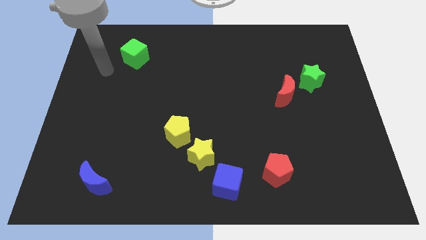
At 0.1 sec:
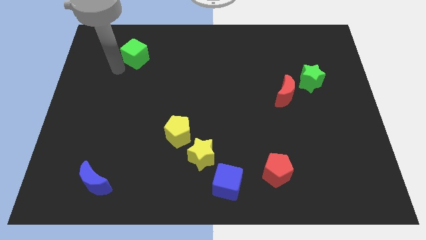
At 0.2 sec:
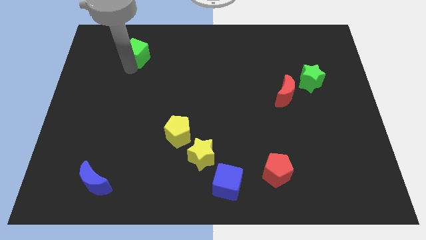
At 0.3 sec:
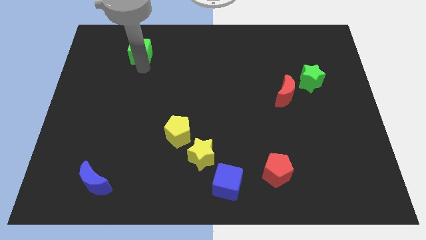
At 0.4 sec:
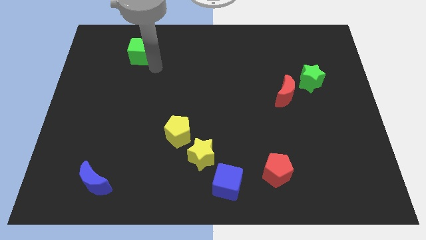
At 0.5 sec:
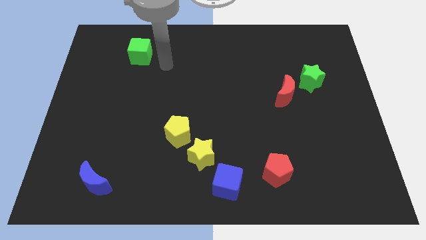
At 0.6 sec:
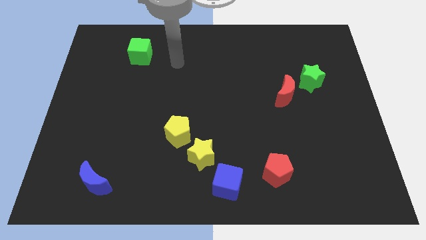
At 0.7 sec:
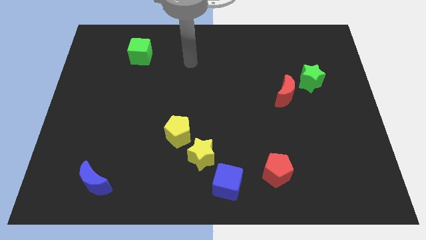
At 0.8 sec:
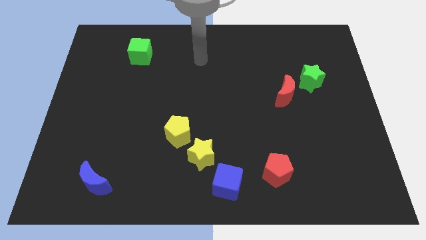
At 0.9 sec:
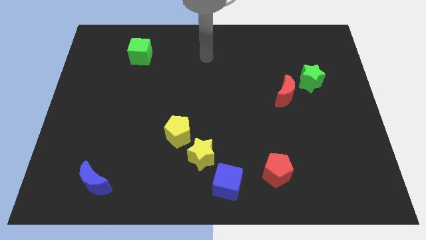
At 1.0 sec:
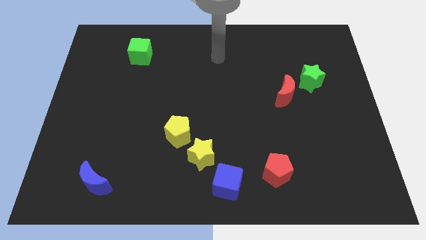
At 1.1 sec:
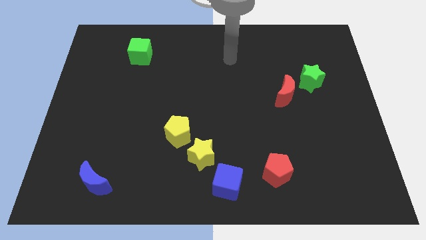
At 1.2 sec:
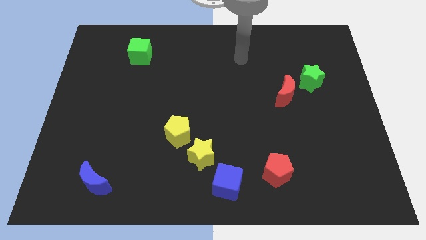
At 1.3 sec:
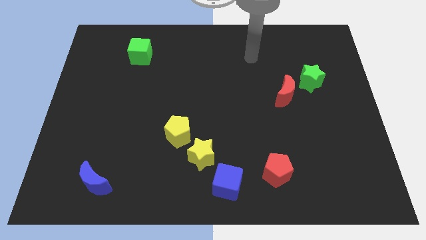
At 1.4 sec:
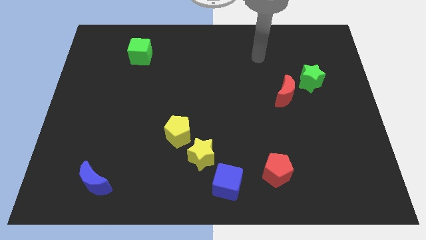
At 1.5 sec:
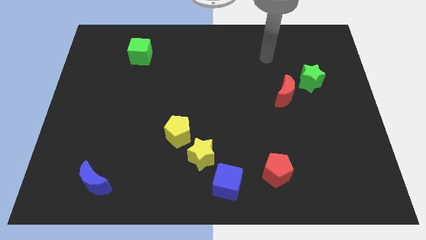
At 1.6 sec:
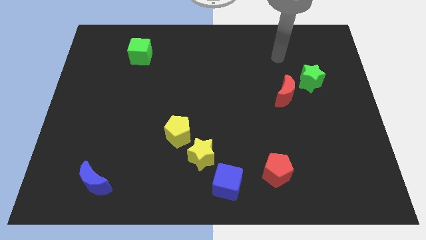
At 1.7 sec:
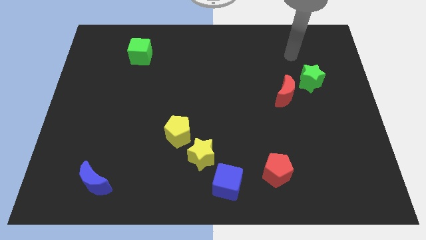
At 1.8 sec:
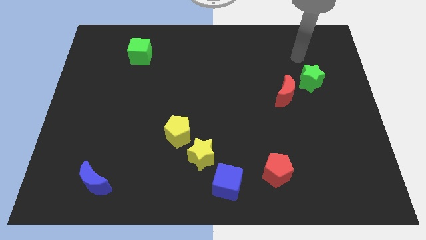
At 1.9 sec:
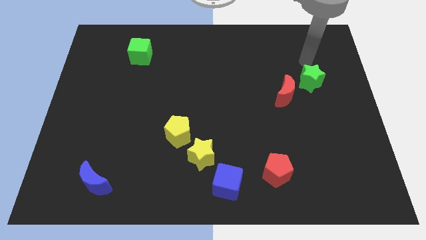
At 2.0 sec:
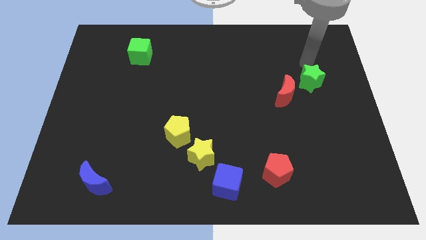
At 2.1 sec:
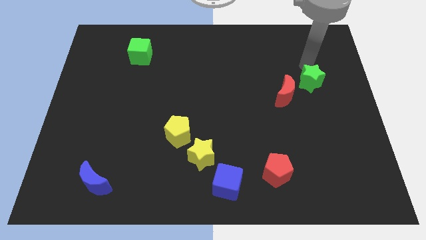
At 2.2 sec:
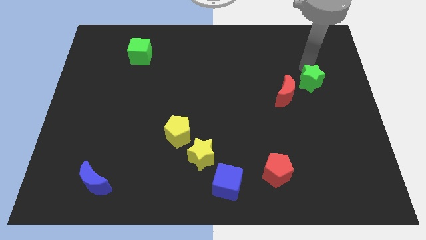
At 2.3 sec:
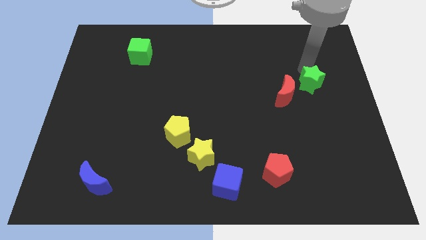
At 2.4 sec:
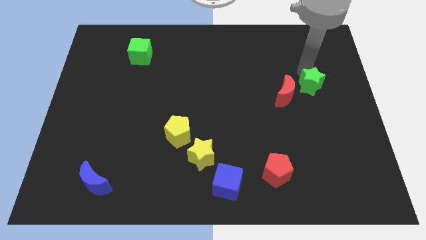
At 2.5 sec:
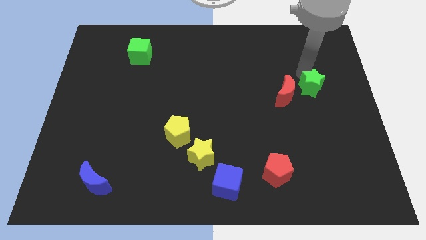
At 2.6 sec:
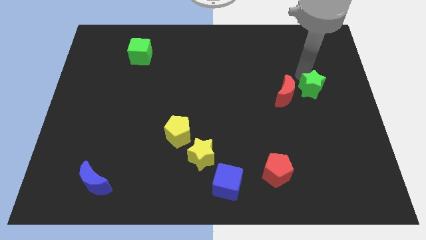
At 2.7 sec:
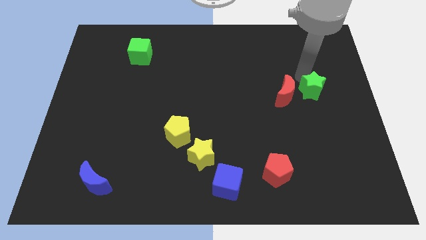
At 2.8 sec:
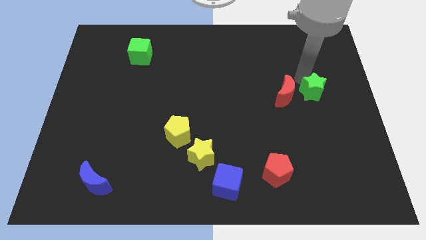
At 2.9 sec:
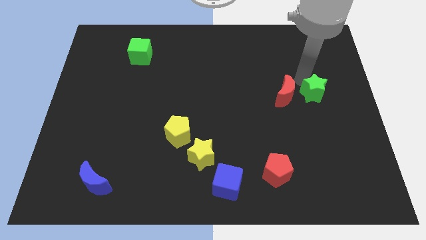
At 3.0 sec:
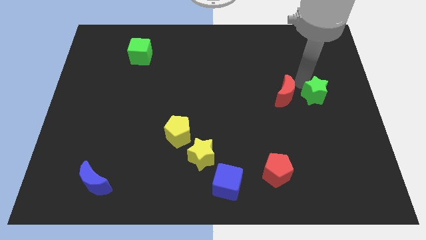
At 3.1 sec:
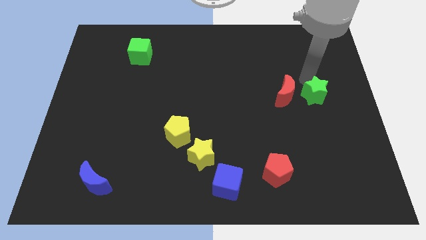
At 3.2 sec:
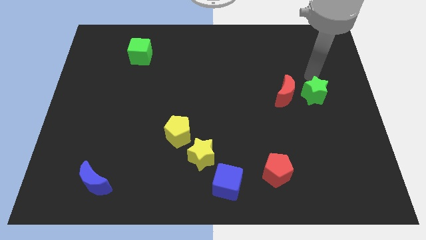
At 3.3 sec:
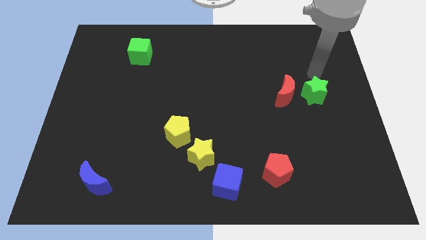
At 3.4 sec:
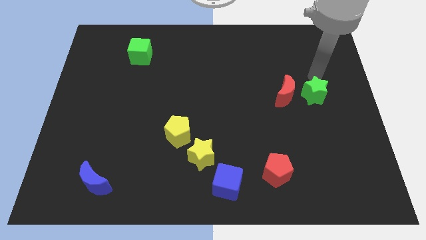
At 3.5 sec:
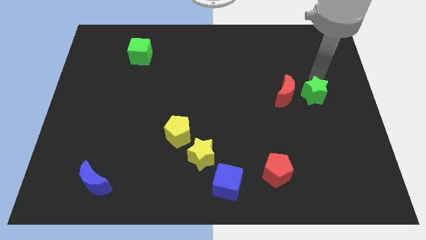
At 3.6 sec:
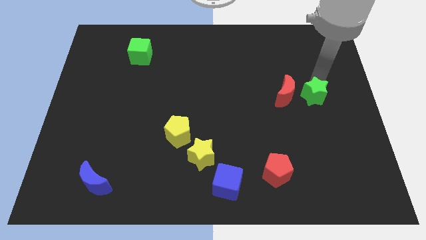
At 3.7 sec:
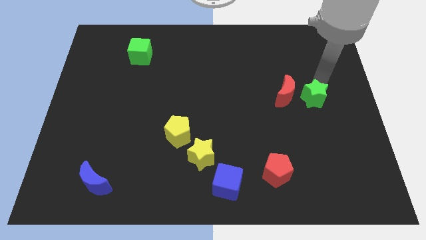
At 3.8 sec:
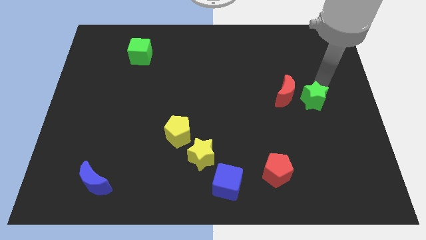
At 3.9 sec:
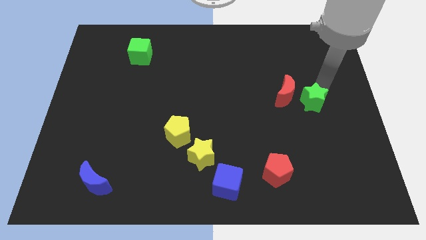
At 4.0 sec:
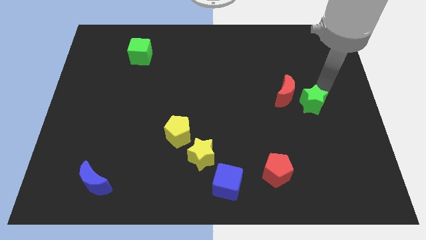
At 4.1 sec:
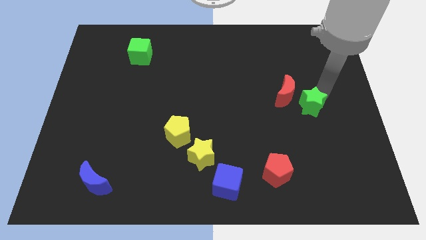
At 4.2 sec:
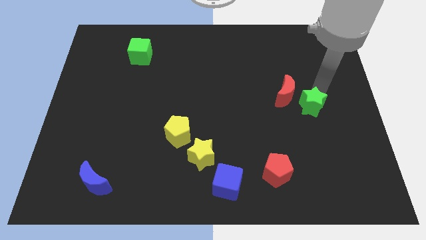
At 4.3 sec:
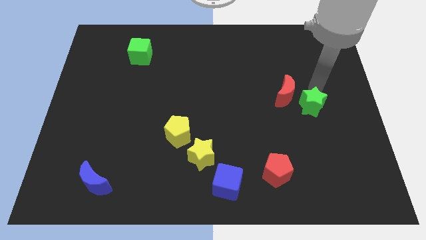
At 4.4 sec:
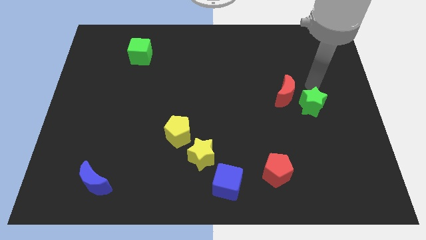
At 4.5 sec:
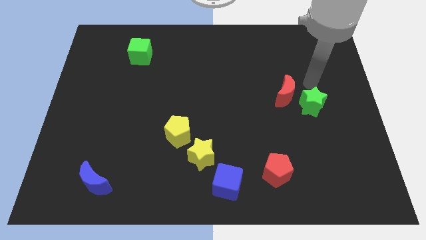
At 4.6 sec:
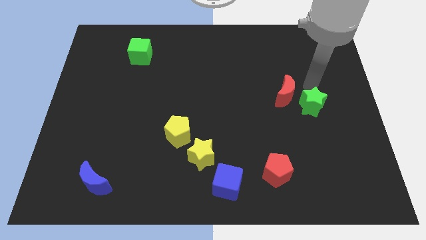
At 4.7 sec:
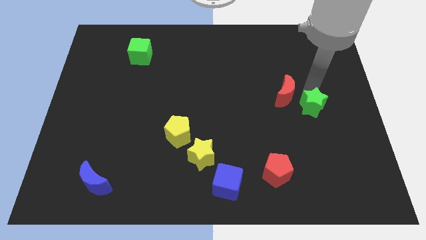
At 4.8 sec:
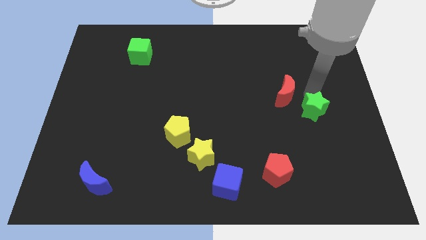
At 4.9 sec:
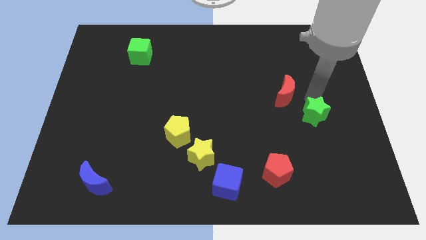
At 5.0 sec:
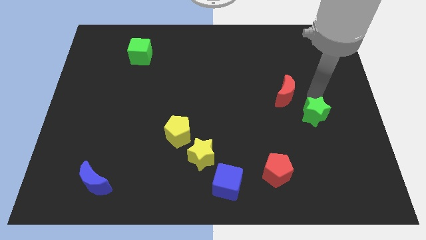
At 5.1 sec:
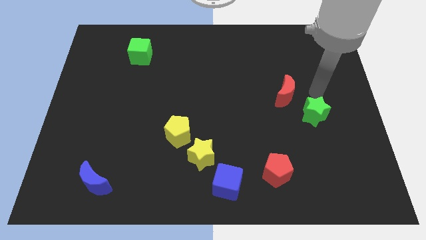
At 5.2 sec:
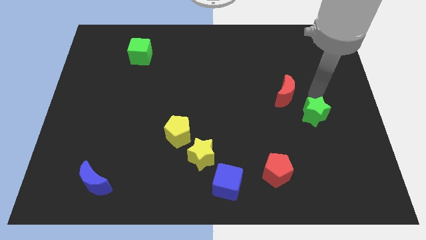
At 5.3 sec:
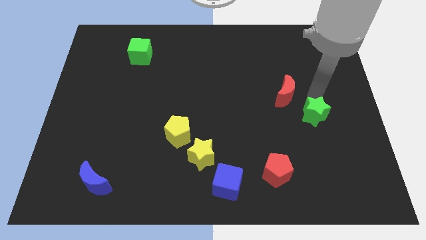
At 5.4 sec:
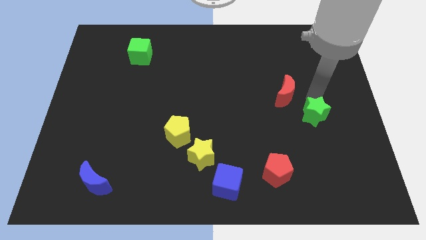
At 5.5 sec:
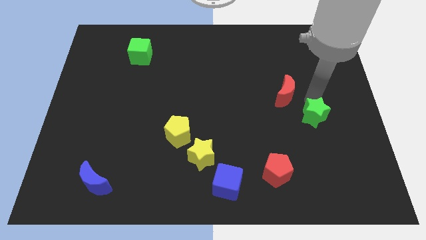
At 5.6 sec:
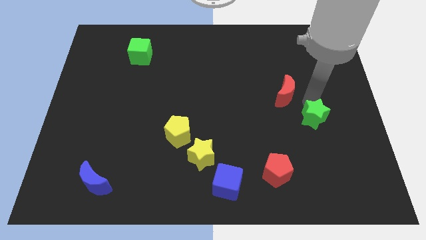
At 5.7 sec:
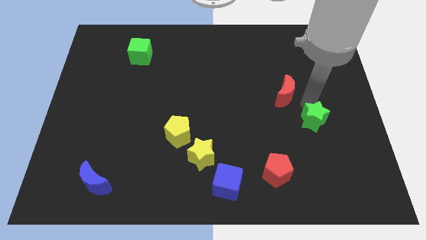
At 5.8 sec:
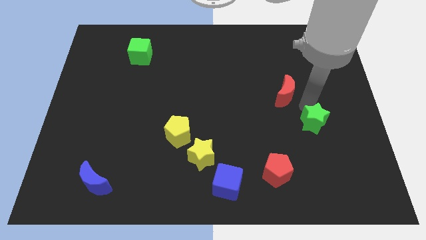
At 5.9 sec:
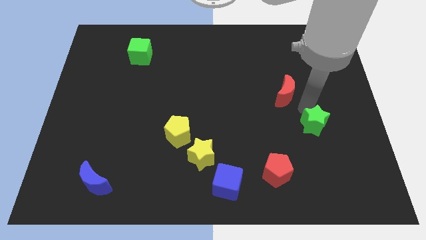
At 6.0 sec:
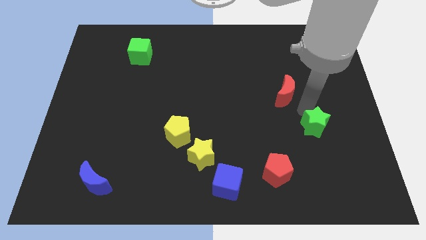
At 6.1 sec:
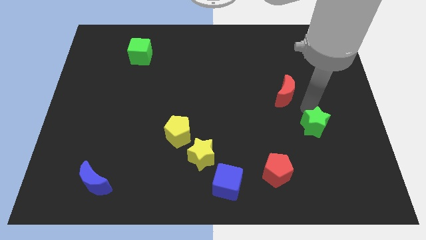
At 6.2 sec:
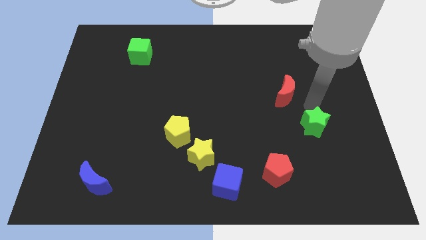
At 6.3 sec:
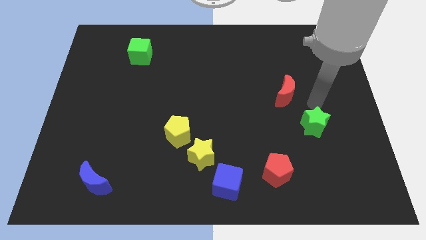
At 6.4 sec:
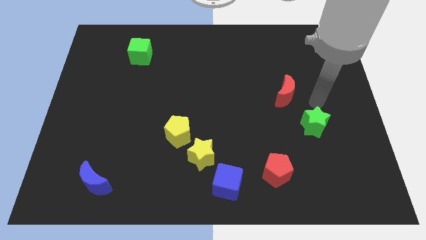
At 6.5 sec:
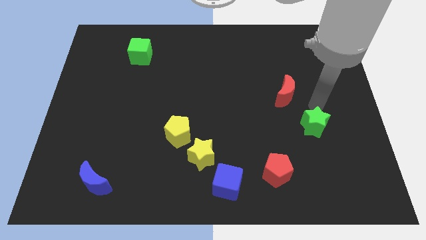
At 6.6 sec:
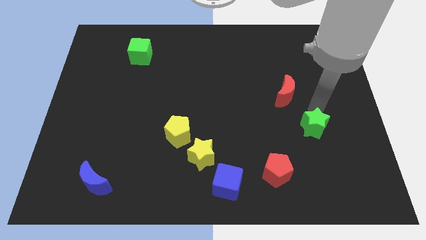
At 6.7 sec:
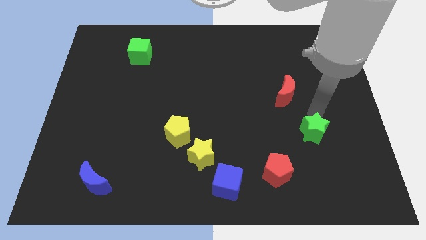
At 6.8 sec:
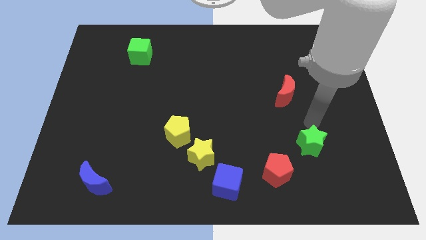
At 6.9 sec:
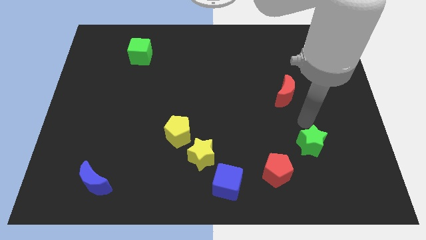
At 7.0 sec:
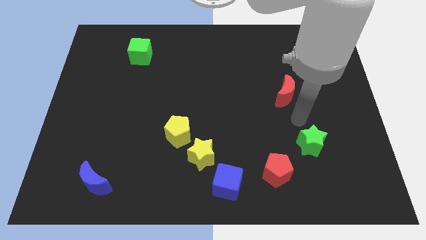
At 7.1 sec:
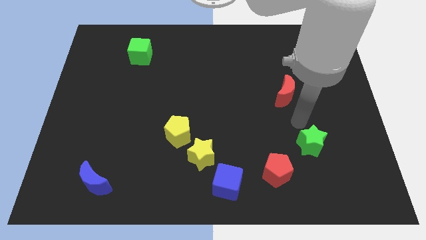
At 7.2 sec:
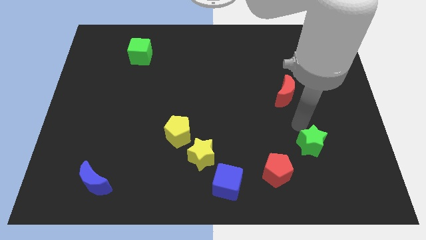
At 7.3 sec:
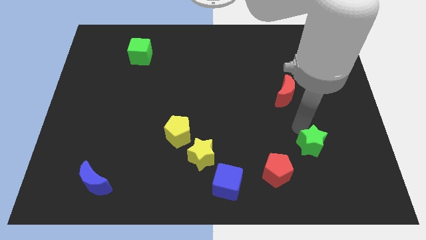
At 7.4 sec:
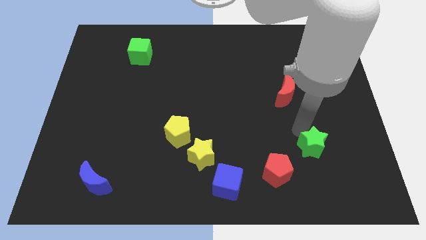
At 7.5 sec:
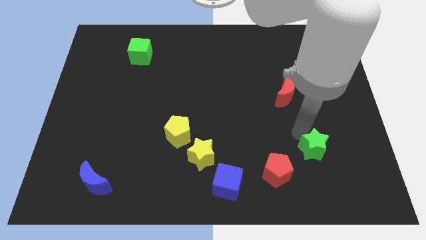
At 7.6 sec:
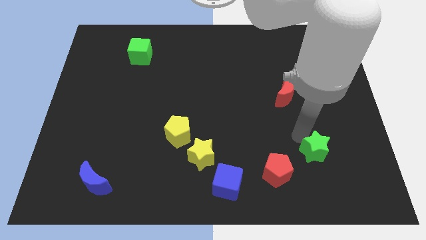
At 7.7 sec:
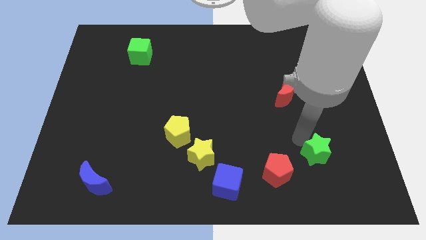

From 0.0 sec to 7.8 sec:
slide the green star just right of the red pentagon
